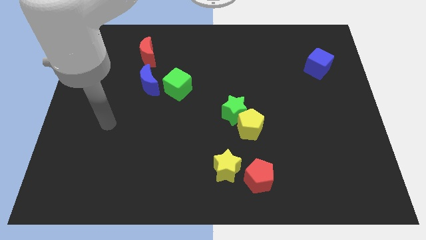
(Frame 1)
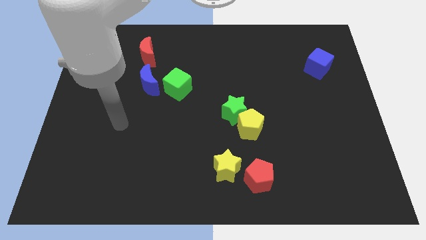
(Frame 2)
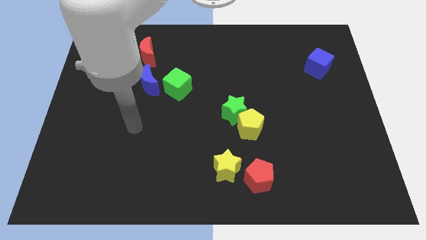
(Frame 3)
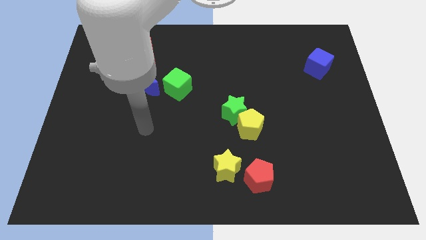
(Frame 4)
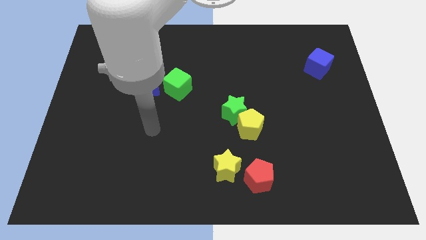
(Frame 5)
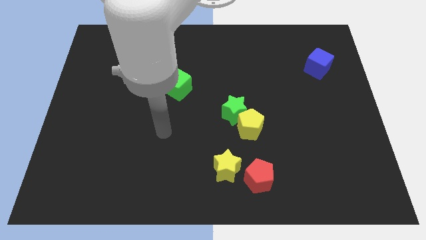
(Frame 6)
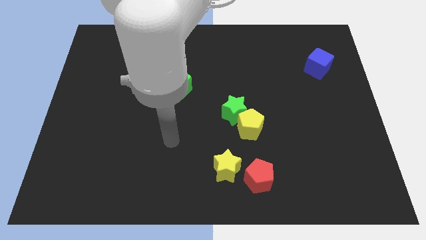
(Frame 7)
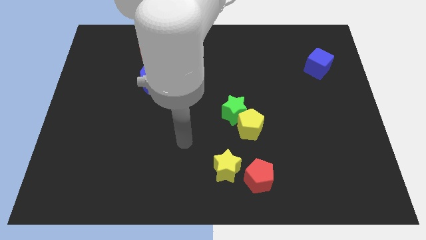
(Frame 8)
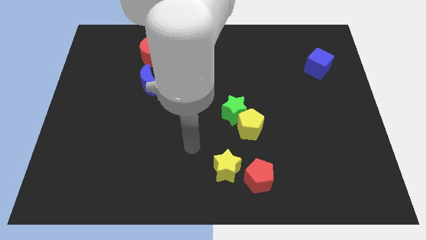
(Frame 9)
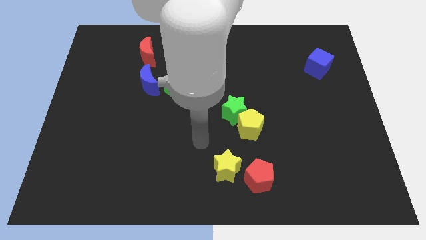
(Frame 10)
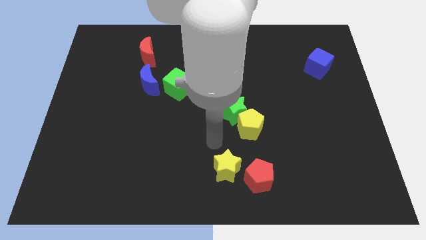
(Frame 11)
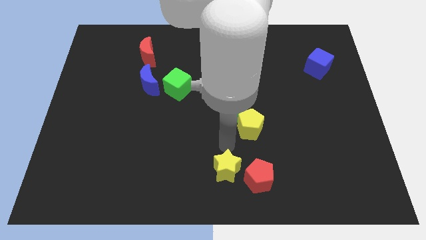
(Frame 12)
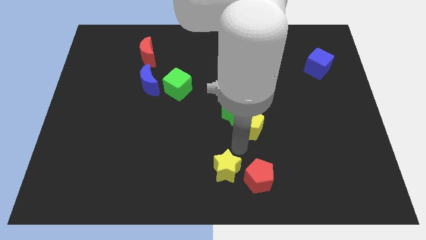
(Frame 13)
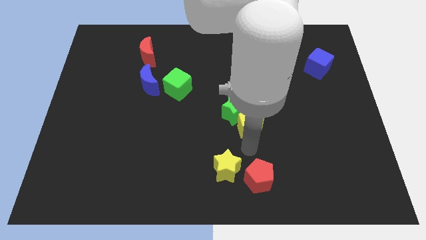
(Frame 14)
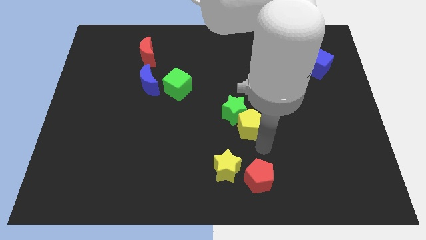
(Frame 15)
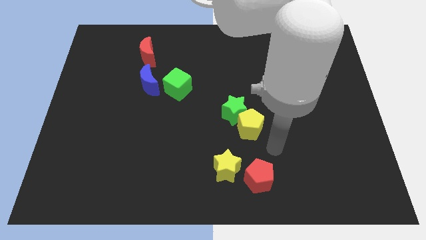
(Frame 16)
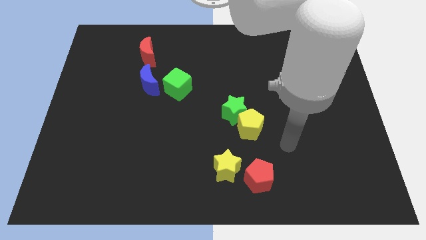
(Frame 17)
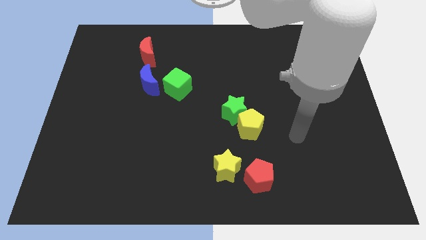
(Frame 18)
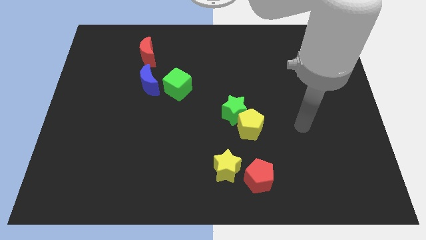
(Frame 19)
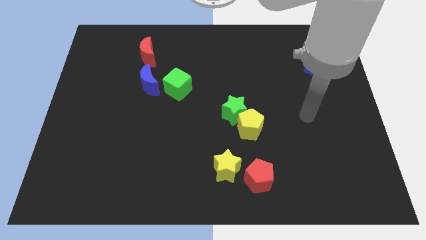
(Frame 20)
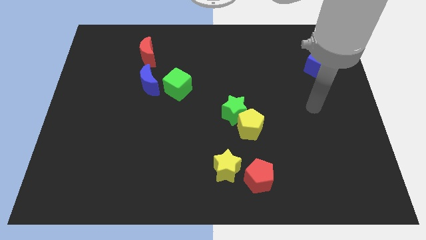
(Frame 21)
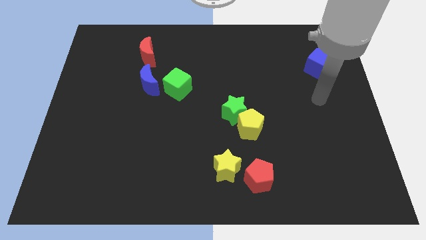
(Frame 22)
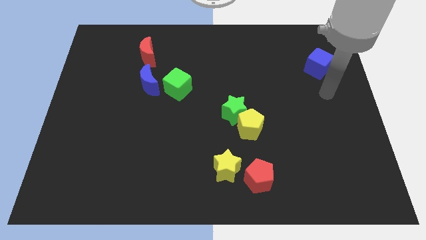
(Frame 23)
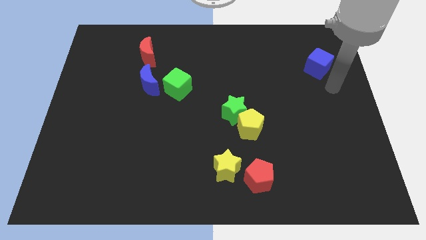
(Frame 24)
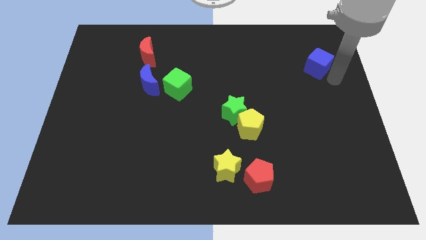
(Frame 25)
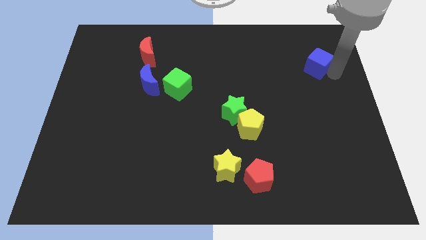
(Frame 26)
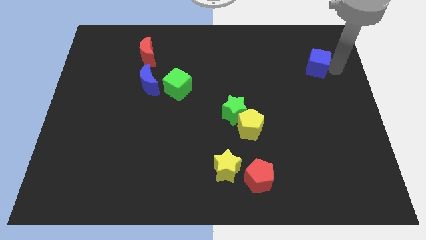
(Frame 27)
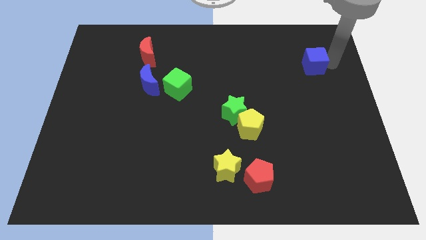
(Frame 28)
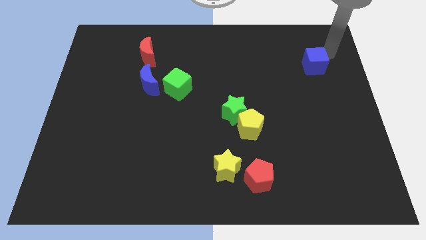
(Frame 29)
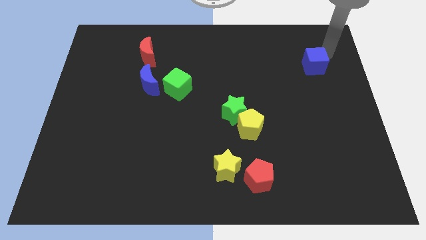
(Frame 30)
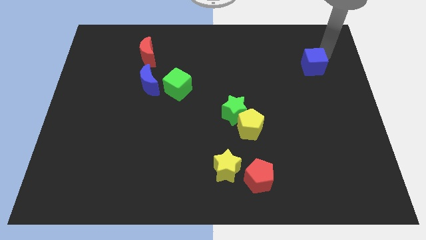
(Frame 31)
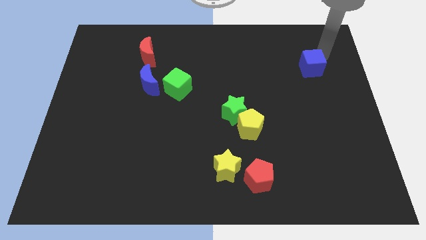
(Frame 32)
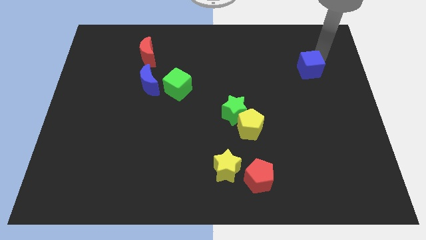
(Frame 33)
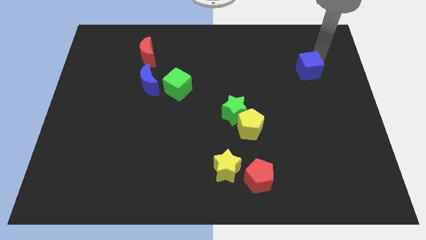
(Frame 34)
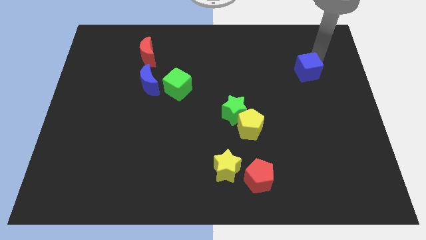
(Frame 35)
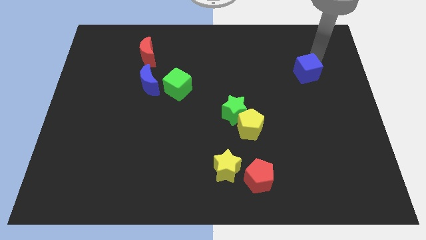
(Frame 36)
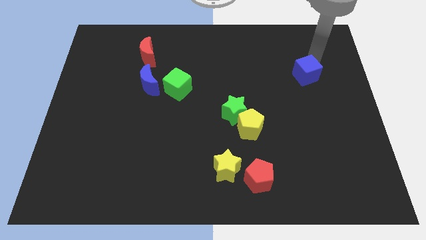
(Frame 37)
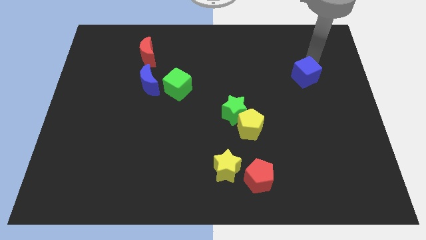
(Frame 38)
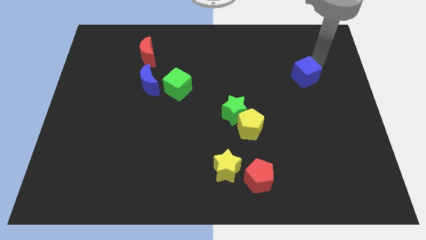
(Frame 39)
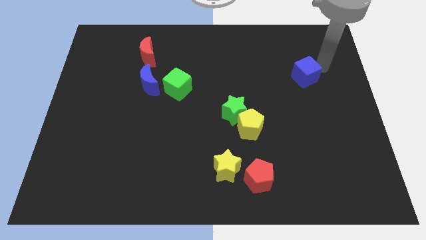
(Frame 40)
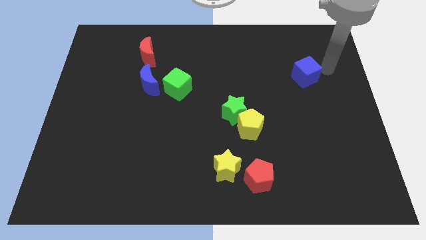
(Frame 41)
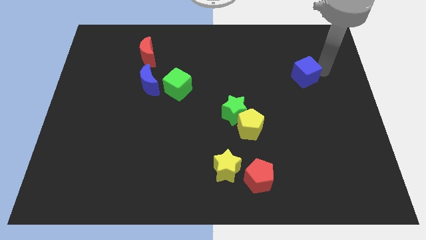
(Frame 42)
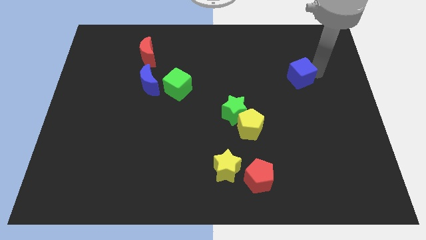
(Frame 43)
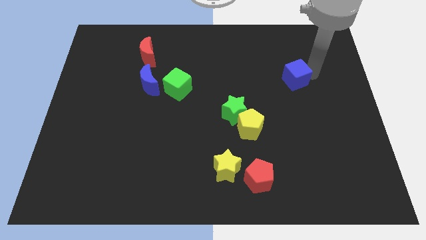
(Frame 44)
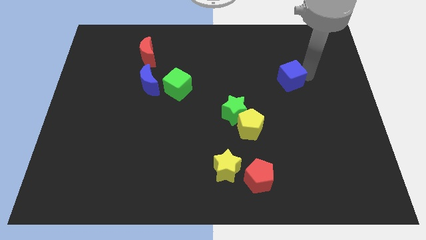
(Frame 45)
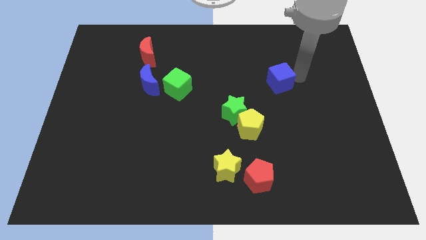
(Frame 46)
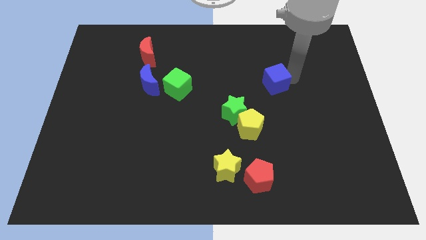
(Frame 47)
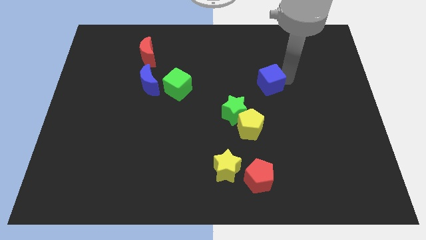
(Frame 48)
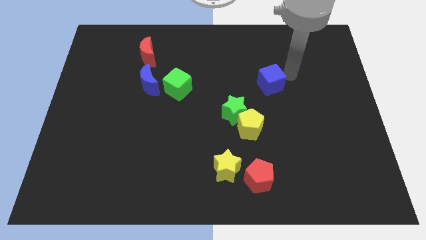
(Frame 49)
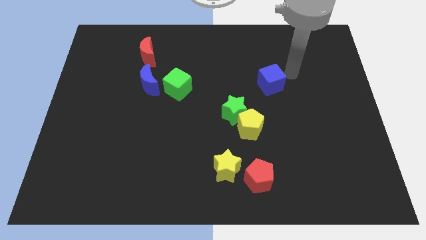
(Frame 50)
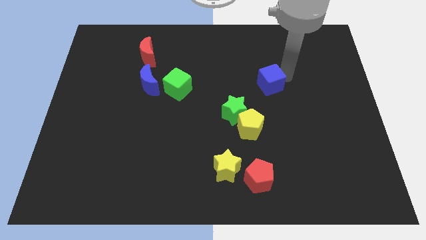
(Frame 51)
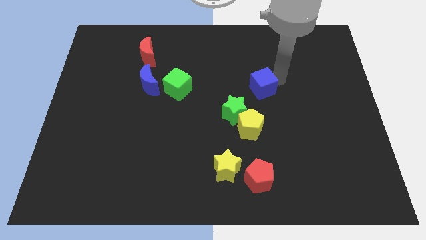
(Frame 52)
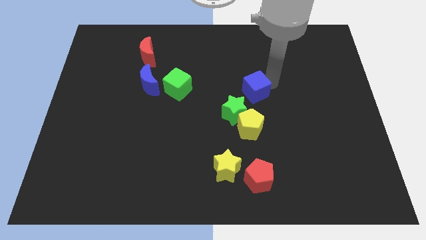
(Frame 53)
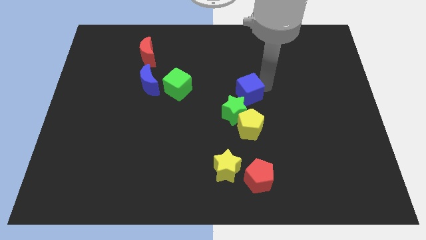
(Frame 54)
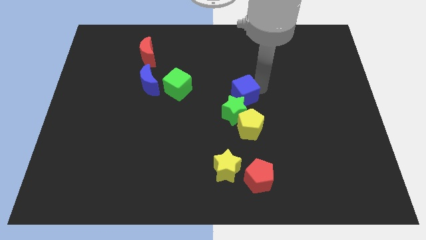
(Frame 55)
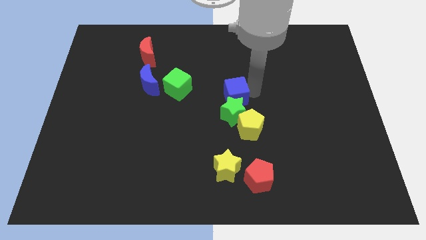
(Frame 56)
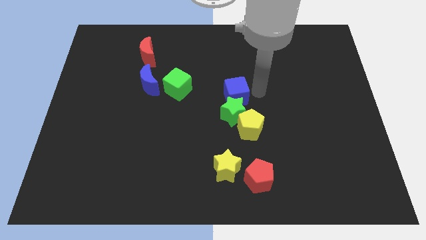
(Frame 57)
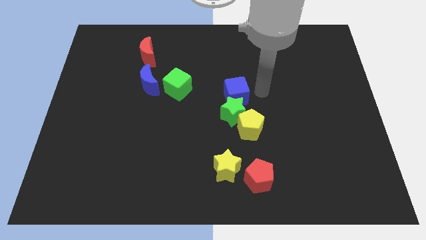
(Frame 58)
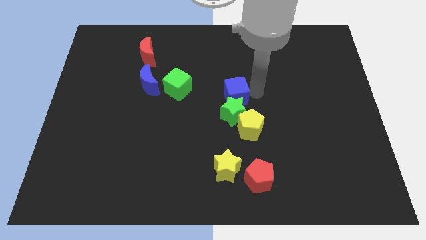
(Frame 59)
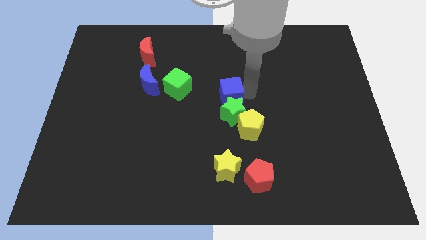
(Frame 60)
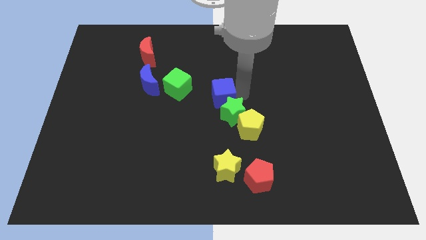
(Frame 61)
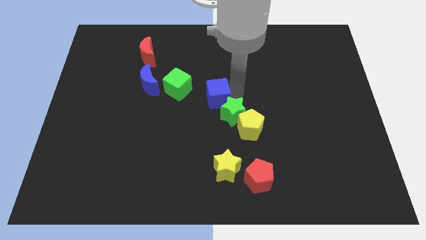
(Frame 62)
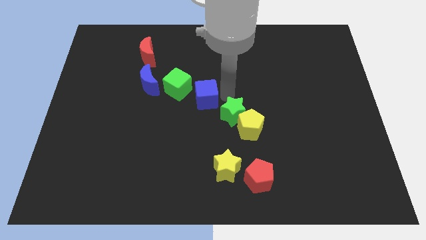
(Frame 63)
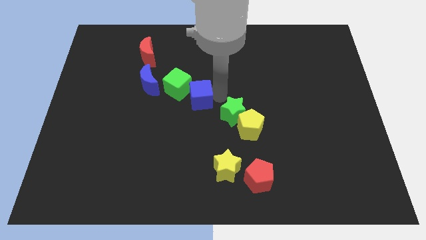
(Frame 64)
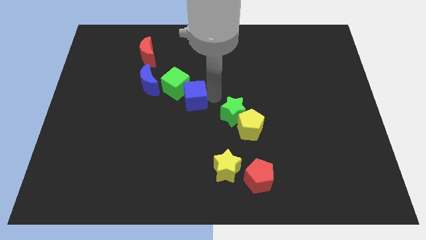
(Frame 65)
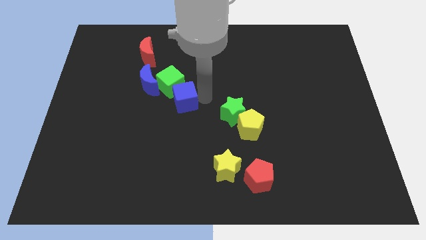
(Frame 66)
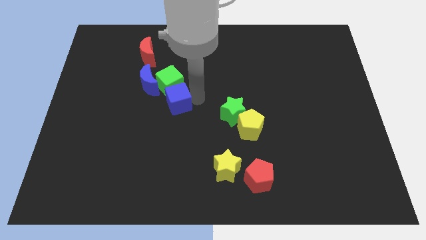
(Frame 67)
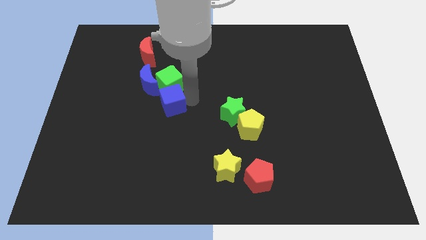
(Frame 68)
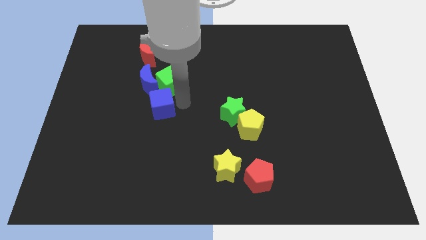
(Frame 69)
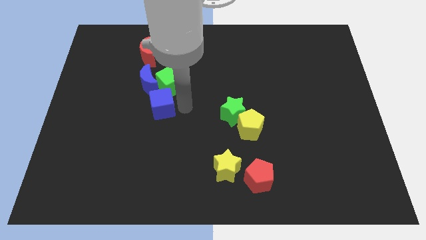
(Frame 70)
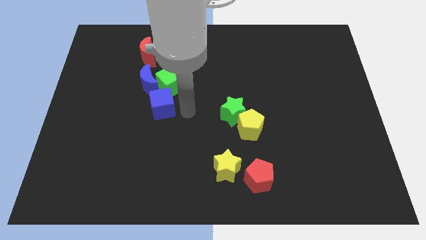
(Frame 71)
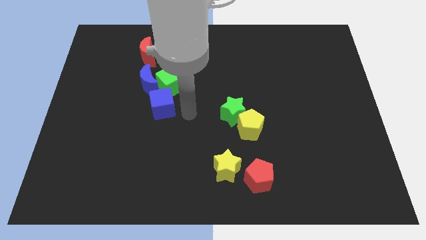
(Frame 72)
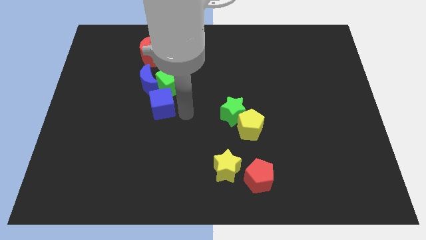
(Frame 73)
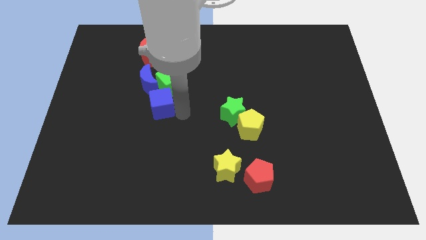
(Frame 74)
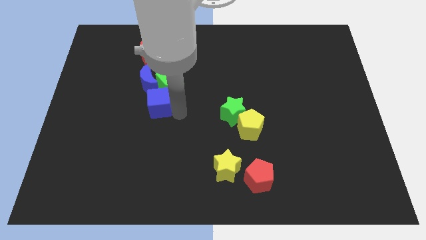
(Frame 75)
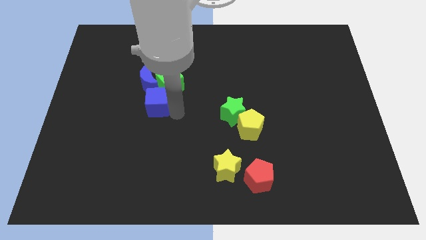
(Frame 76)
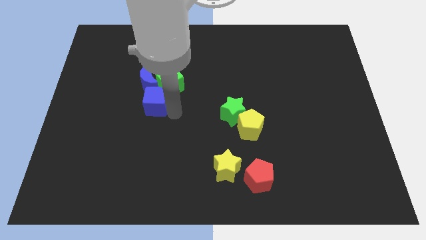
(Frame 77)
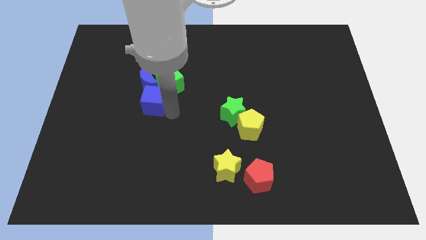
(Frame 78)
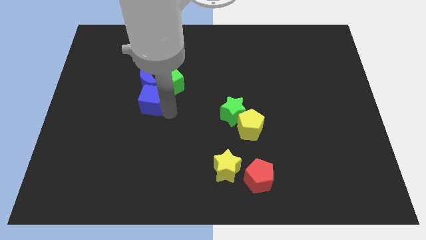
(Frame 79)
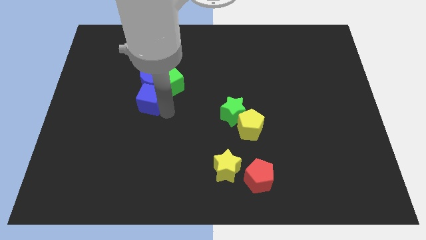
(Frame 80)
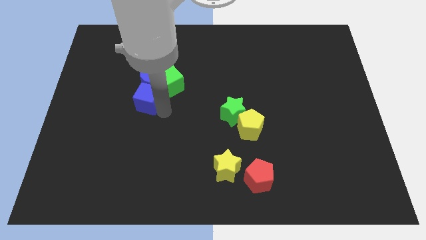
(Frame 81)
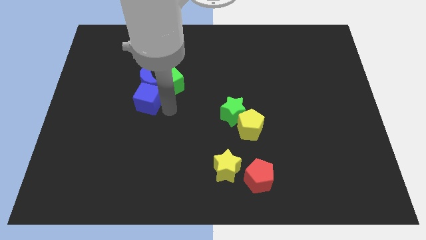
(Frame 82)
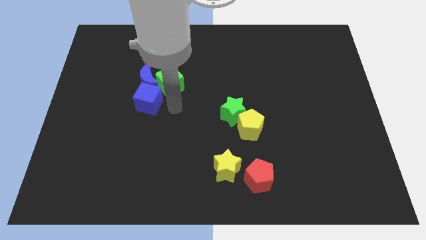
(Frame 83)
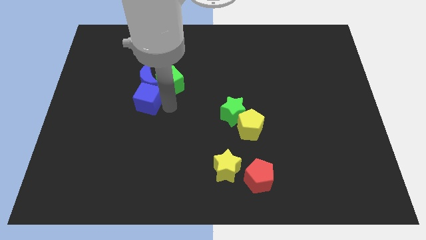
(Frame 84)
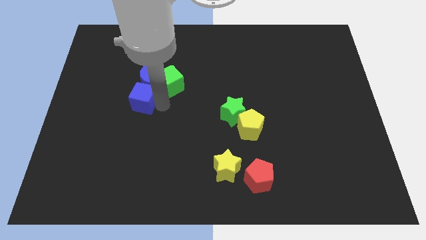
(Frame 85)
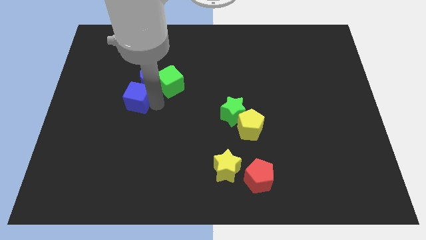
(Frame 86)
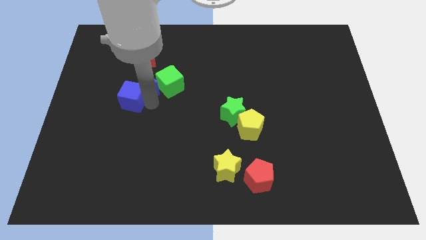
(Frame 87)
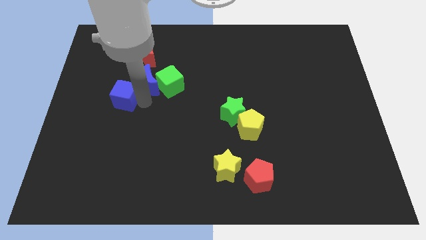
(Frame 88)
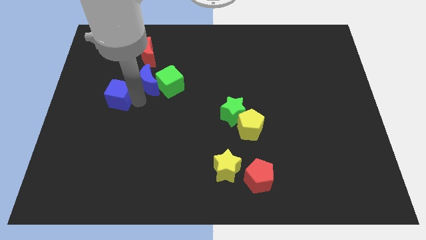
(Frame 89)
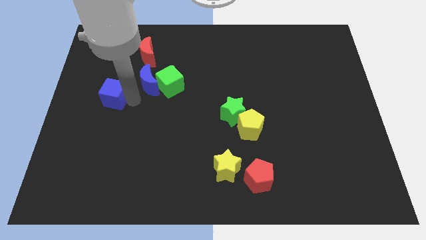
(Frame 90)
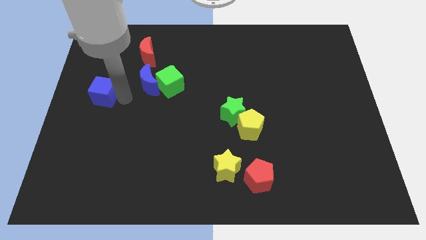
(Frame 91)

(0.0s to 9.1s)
slide the blue cube to the left side
